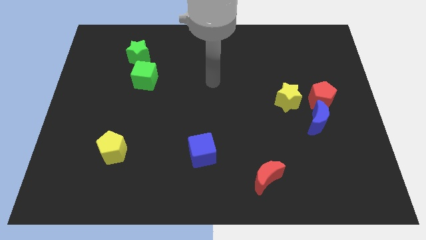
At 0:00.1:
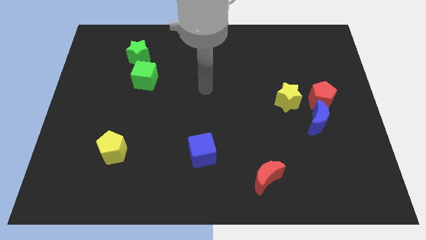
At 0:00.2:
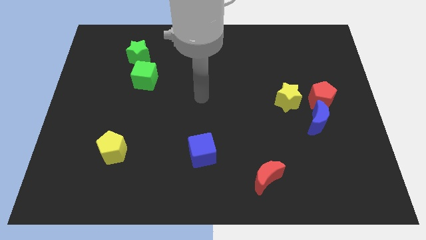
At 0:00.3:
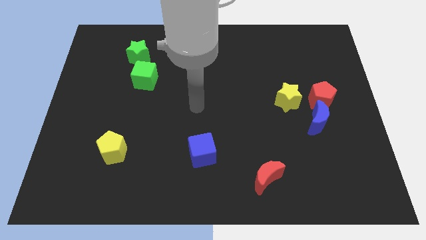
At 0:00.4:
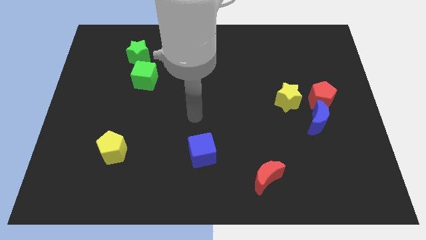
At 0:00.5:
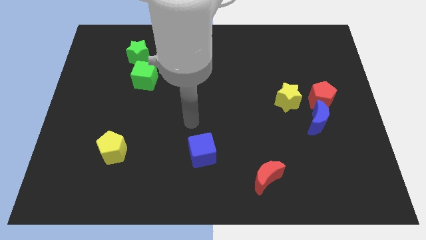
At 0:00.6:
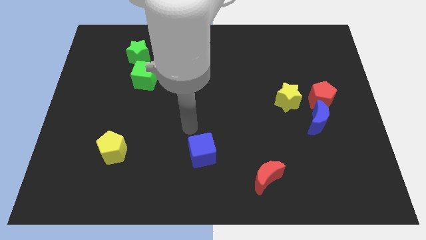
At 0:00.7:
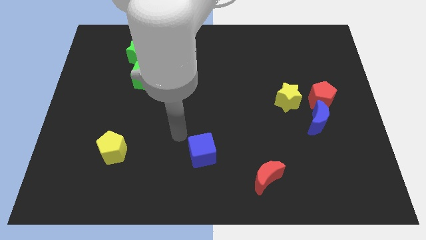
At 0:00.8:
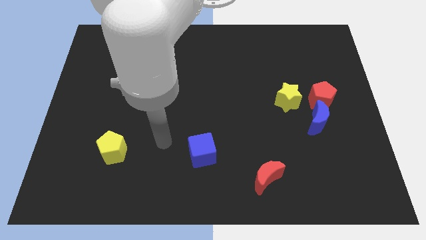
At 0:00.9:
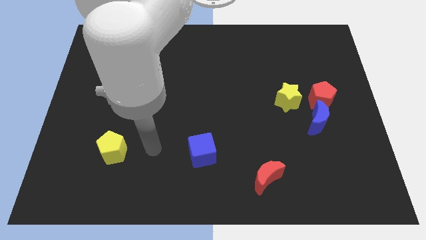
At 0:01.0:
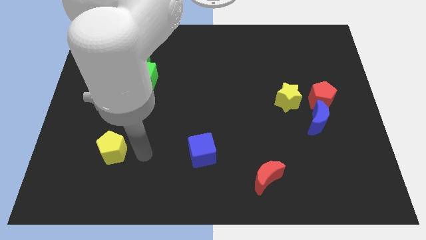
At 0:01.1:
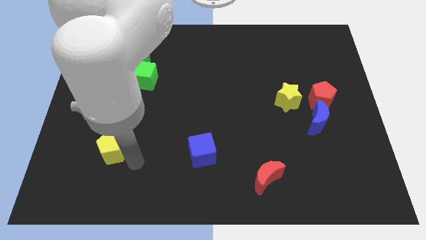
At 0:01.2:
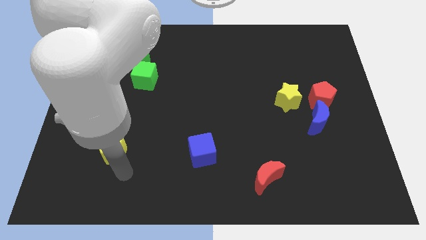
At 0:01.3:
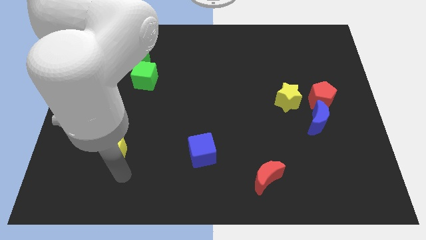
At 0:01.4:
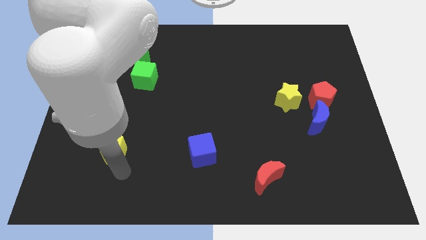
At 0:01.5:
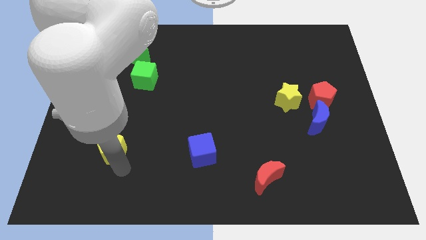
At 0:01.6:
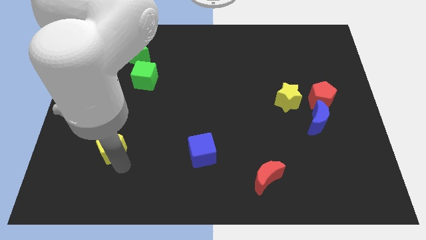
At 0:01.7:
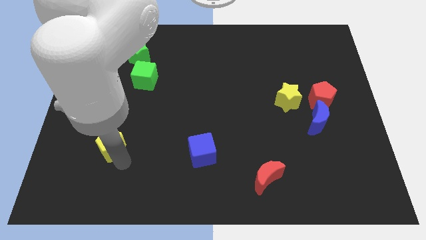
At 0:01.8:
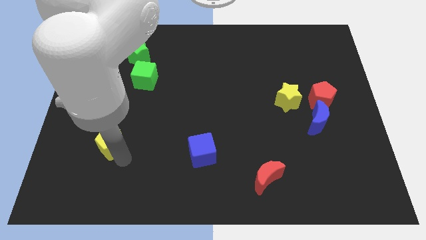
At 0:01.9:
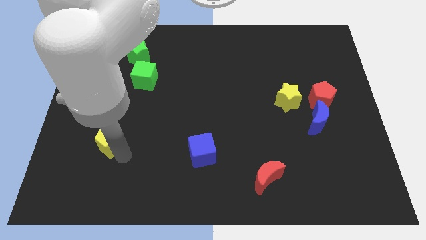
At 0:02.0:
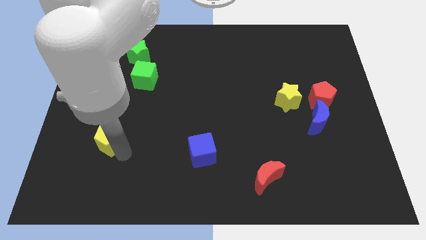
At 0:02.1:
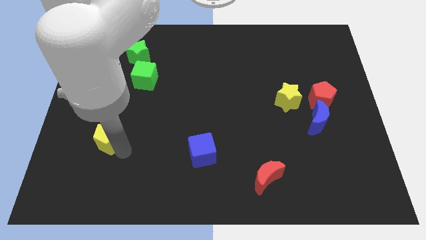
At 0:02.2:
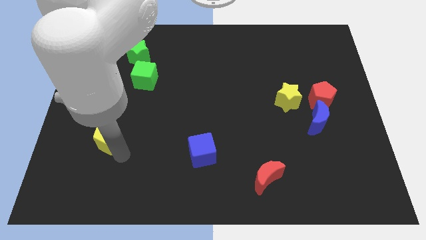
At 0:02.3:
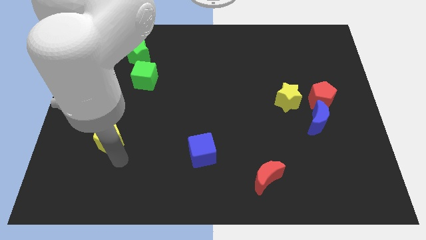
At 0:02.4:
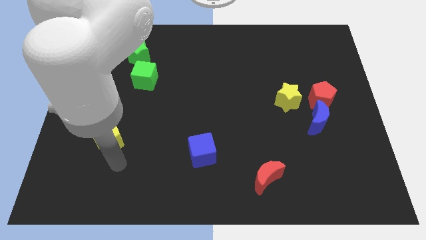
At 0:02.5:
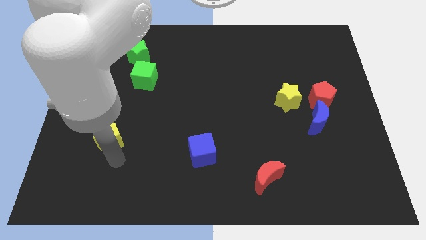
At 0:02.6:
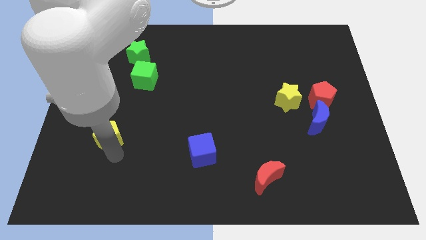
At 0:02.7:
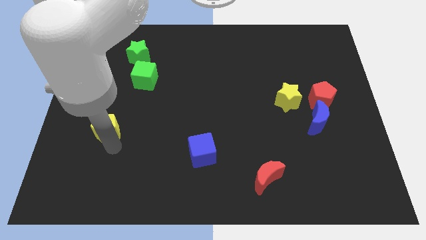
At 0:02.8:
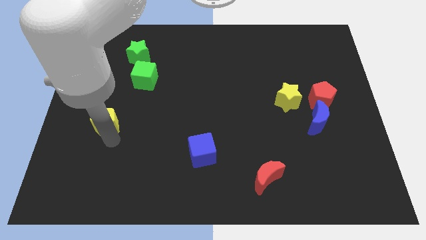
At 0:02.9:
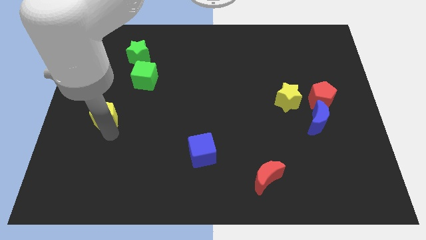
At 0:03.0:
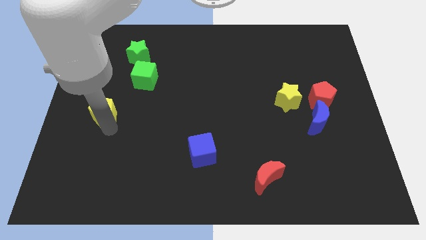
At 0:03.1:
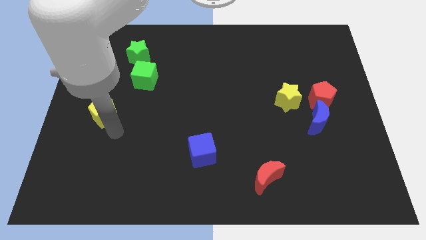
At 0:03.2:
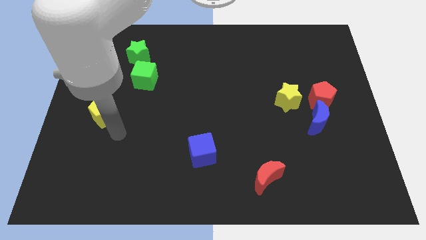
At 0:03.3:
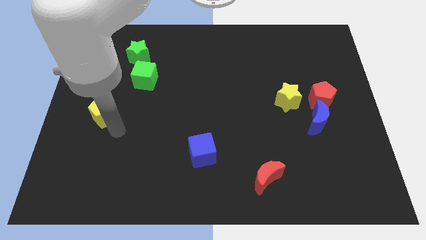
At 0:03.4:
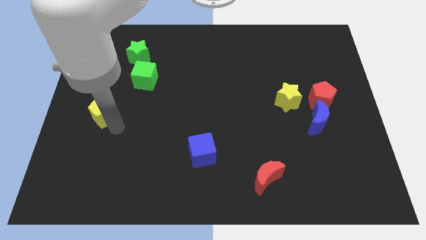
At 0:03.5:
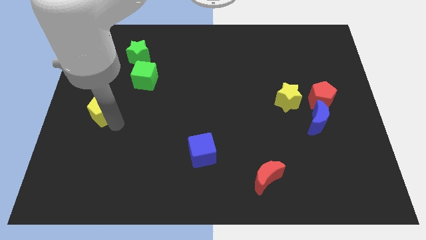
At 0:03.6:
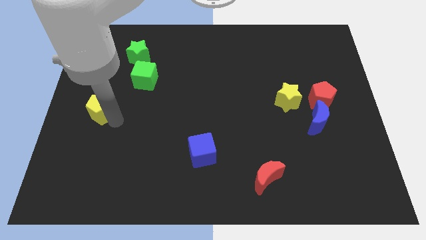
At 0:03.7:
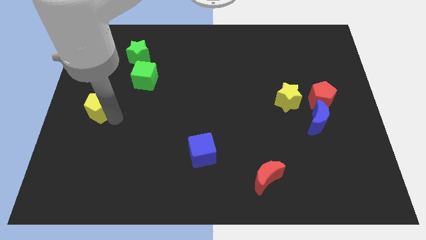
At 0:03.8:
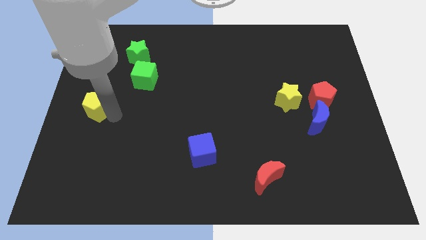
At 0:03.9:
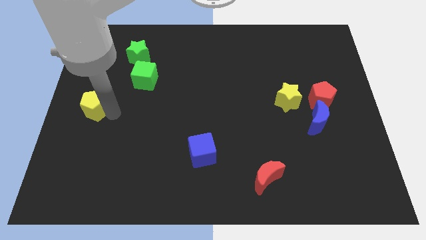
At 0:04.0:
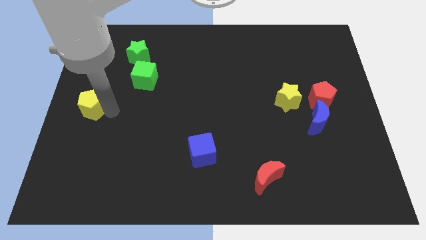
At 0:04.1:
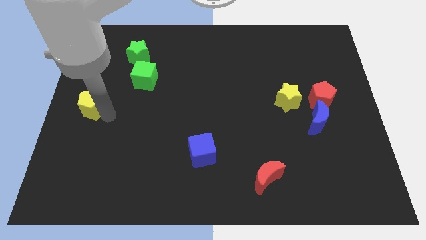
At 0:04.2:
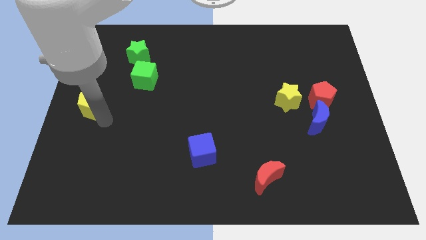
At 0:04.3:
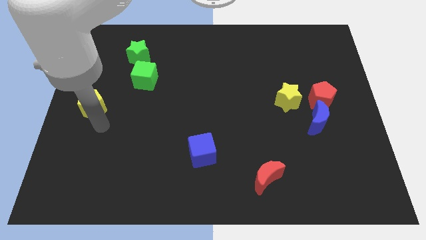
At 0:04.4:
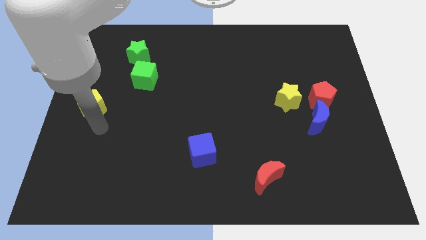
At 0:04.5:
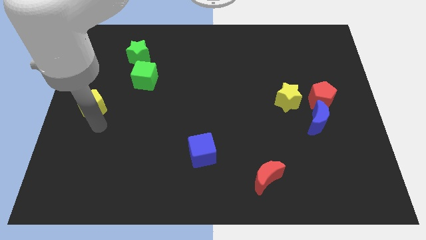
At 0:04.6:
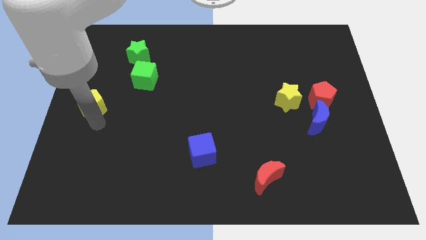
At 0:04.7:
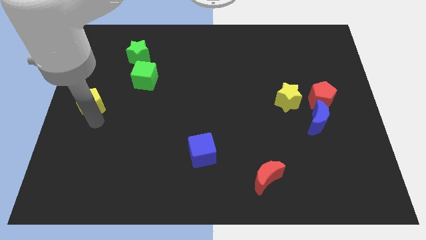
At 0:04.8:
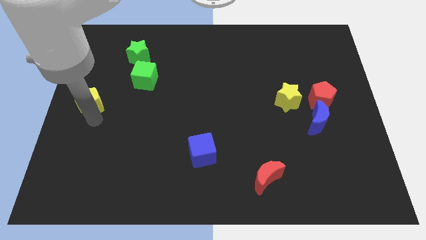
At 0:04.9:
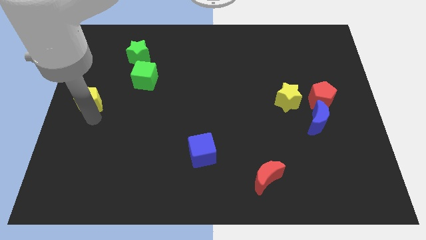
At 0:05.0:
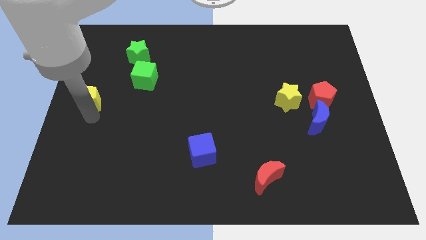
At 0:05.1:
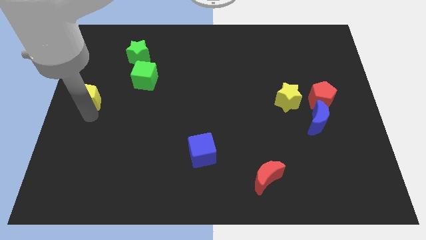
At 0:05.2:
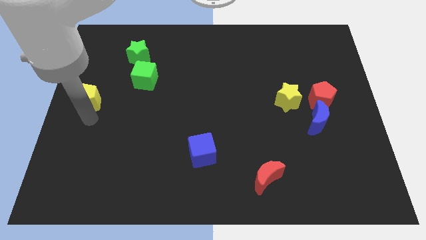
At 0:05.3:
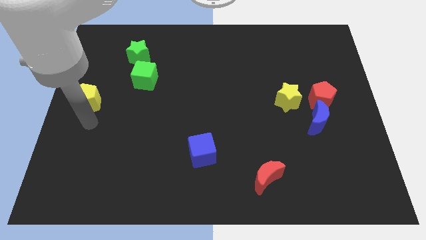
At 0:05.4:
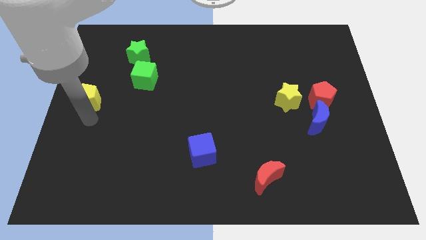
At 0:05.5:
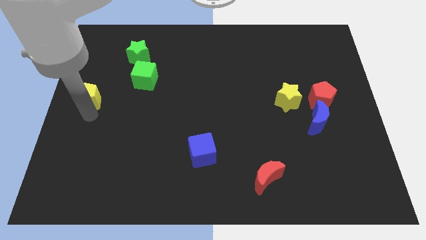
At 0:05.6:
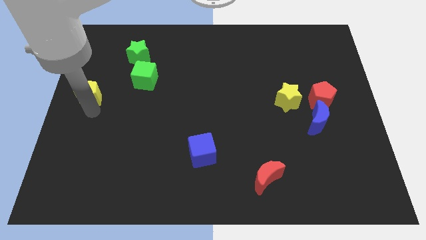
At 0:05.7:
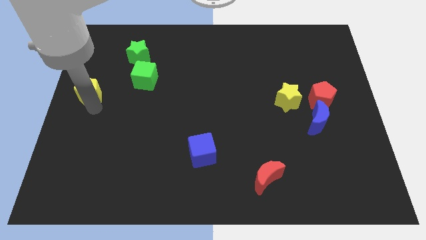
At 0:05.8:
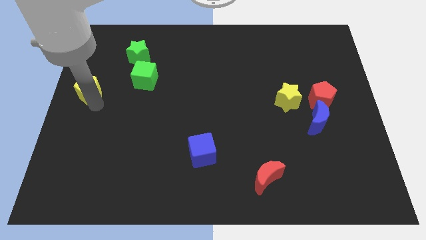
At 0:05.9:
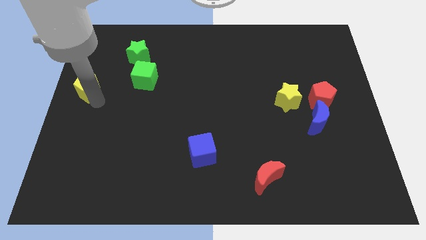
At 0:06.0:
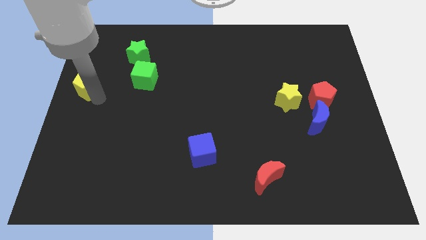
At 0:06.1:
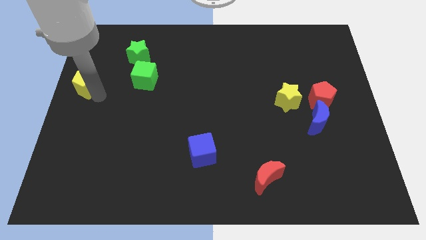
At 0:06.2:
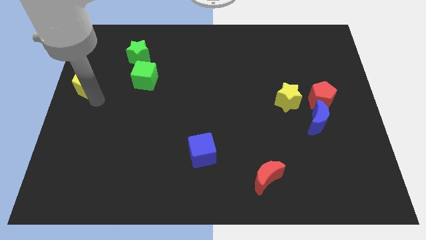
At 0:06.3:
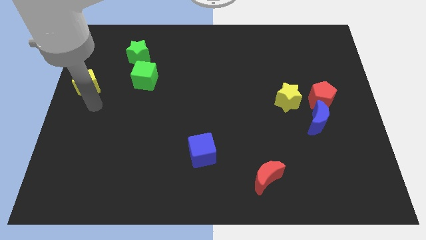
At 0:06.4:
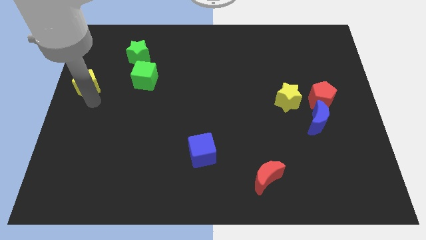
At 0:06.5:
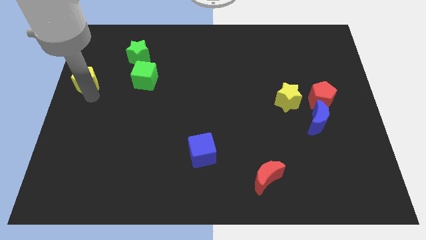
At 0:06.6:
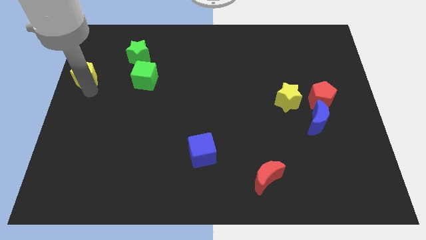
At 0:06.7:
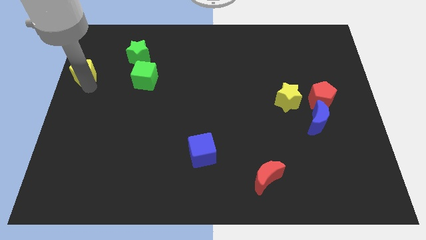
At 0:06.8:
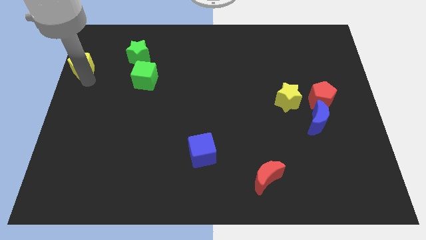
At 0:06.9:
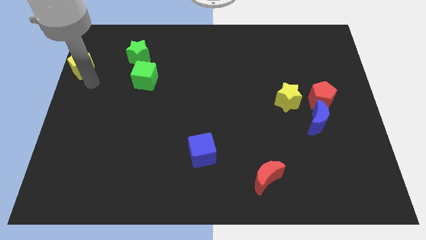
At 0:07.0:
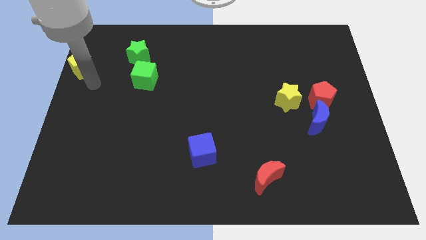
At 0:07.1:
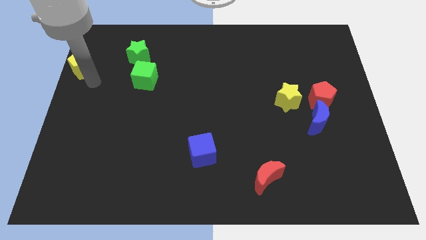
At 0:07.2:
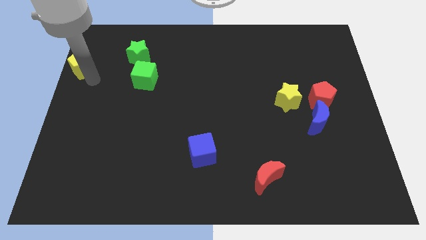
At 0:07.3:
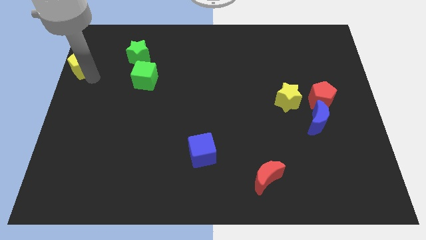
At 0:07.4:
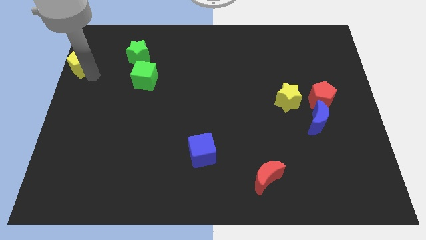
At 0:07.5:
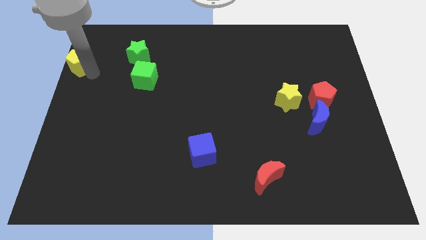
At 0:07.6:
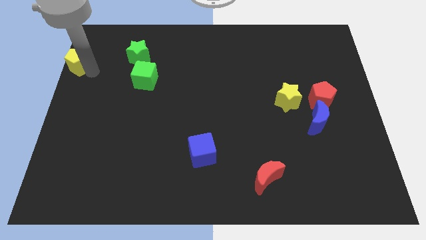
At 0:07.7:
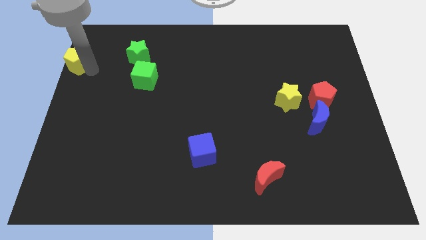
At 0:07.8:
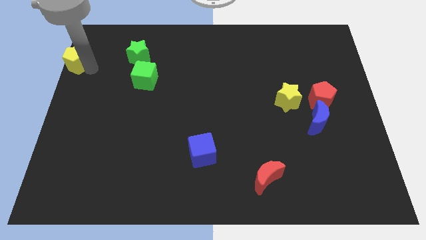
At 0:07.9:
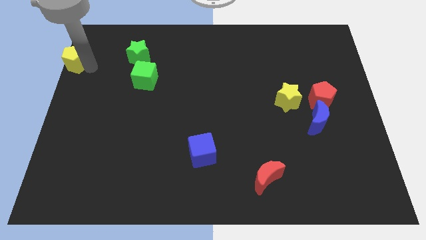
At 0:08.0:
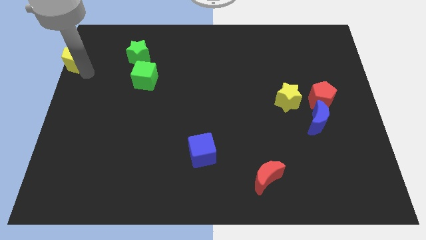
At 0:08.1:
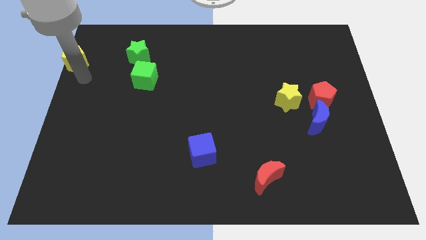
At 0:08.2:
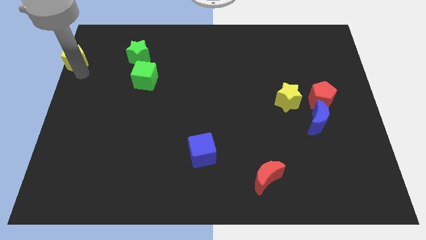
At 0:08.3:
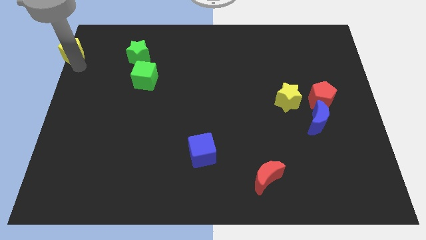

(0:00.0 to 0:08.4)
move the yellow pentagon to the top left
